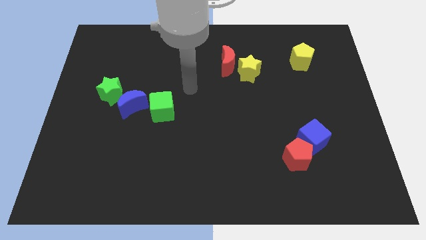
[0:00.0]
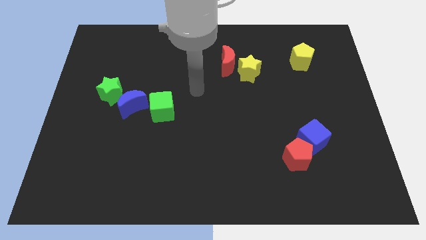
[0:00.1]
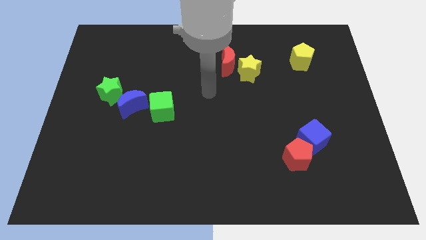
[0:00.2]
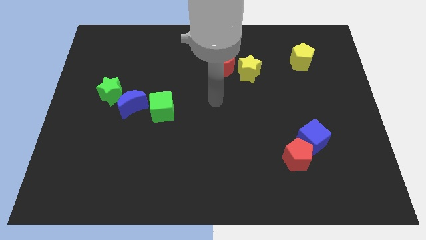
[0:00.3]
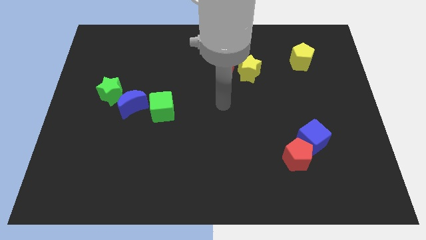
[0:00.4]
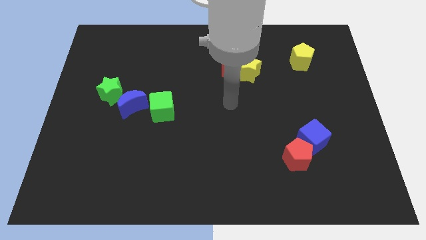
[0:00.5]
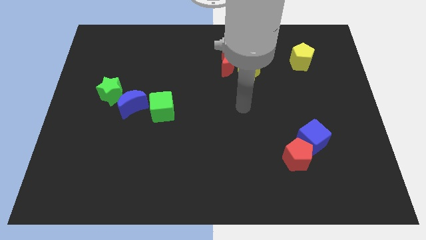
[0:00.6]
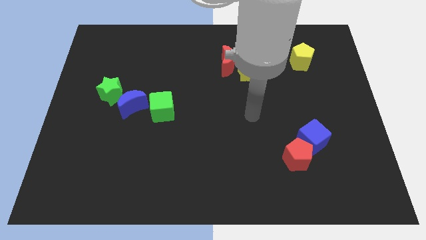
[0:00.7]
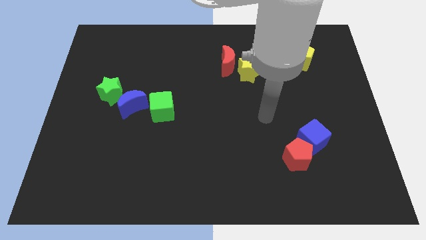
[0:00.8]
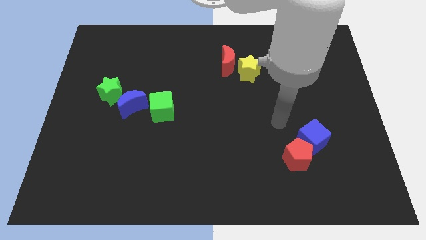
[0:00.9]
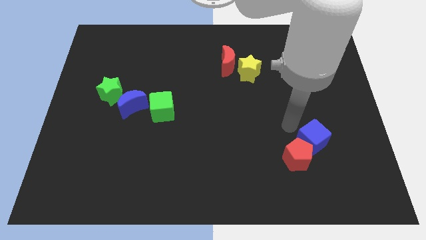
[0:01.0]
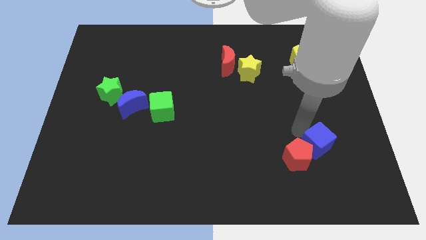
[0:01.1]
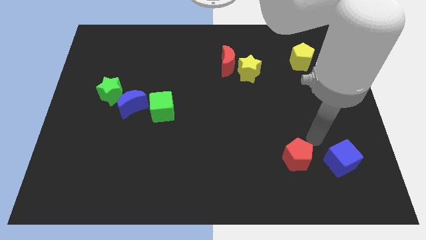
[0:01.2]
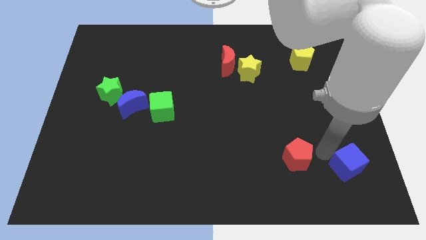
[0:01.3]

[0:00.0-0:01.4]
separate the red pentagon from the blue cube

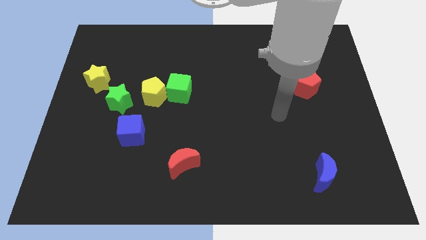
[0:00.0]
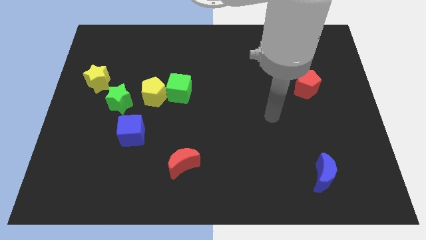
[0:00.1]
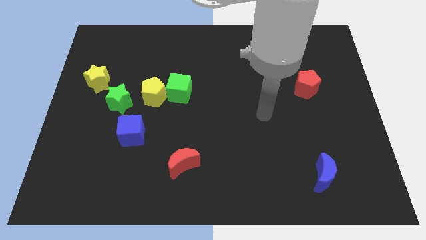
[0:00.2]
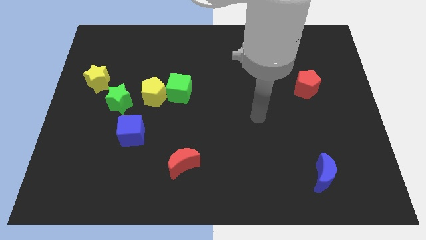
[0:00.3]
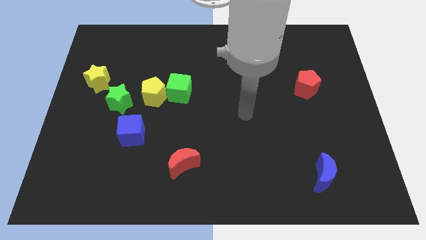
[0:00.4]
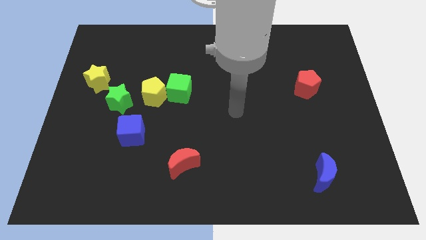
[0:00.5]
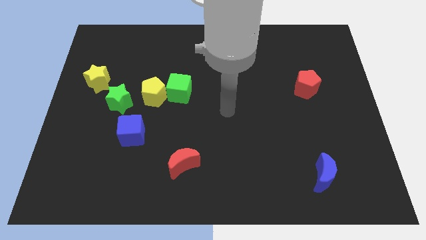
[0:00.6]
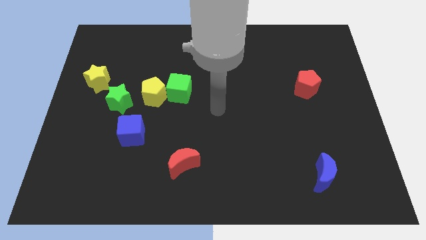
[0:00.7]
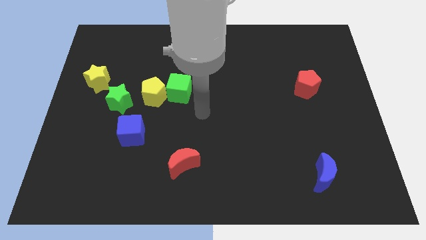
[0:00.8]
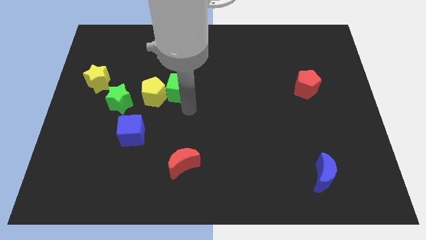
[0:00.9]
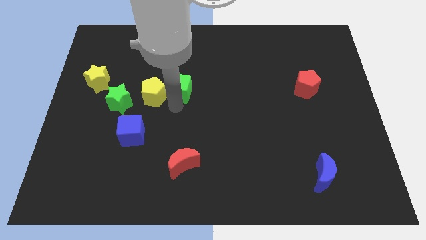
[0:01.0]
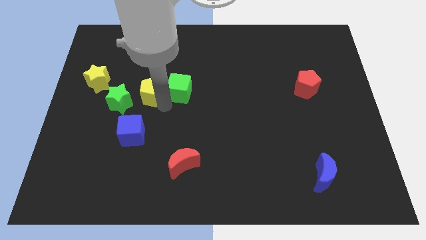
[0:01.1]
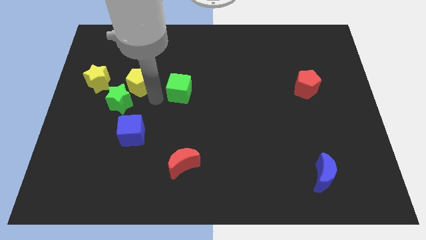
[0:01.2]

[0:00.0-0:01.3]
separate the green cube from the yellow pentagon

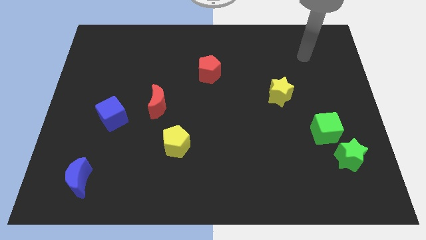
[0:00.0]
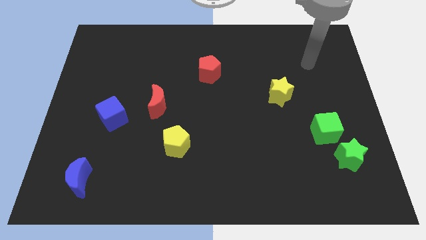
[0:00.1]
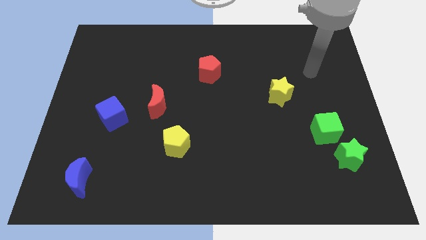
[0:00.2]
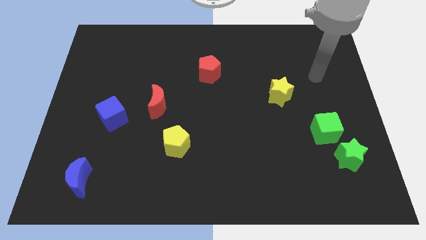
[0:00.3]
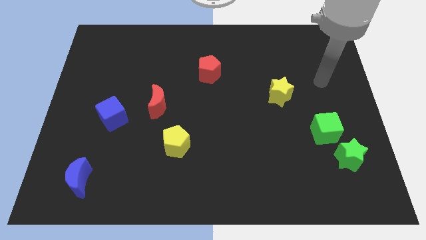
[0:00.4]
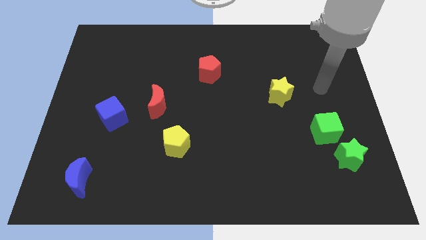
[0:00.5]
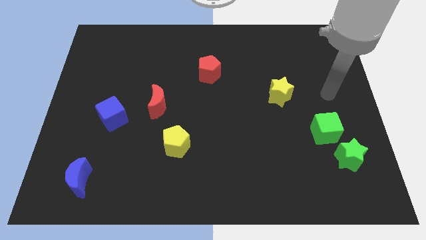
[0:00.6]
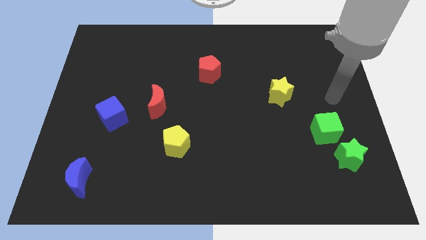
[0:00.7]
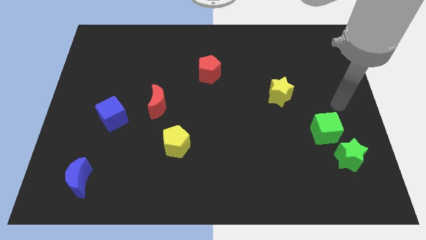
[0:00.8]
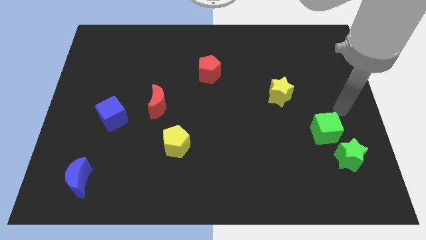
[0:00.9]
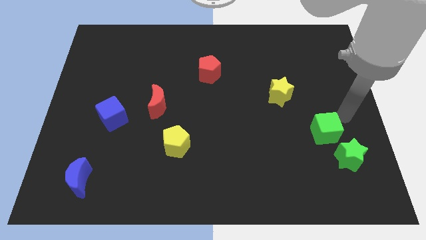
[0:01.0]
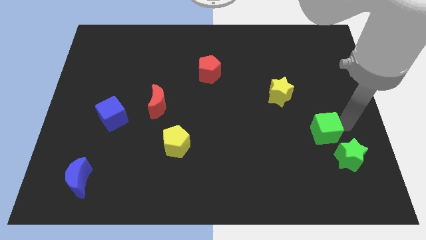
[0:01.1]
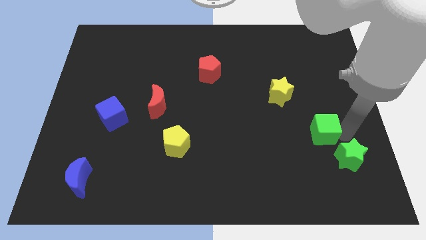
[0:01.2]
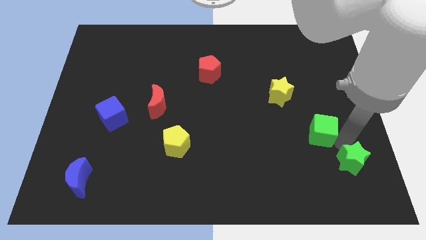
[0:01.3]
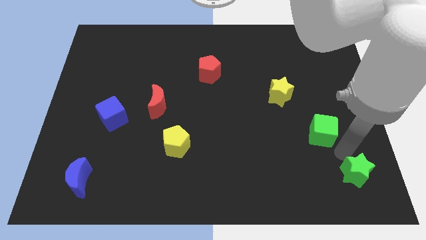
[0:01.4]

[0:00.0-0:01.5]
move the green cube away from the green star

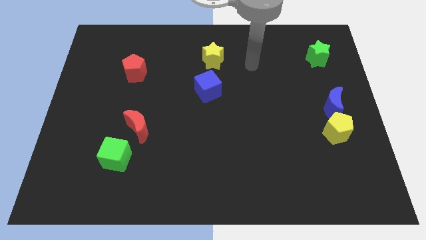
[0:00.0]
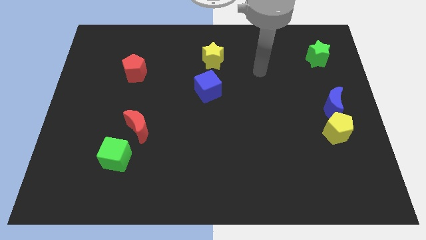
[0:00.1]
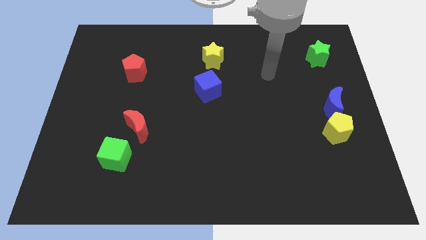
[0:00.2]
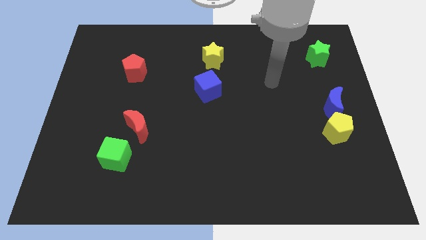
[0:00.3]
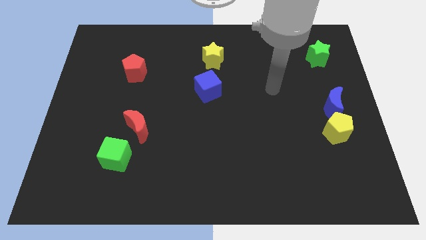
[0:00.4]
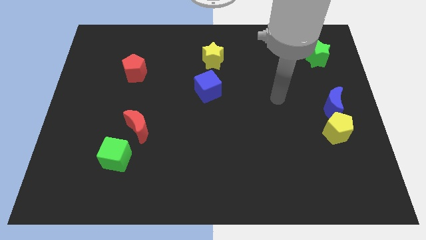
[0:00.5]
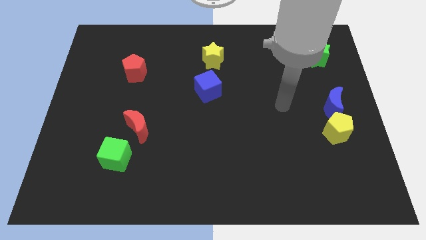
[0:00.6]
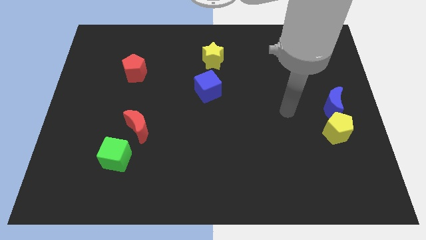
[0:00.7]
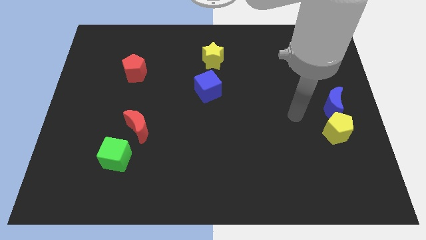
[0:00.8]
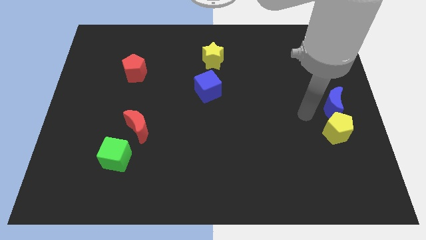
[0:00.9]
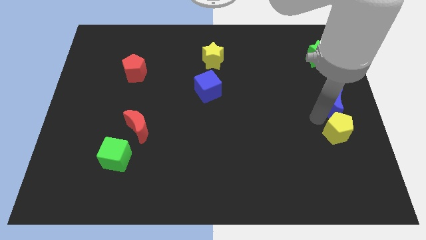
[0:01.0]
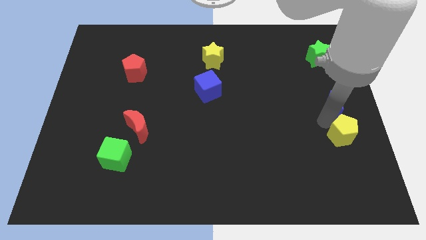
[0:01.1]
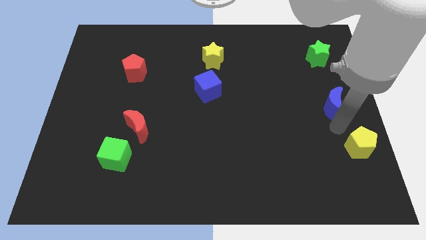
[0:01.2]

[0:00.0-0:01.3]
move the blue moon away from the yellow pentagon

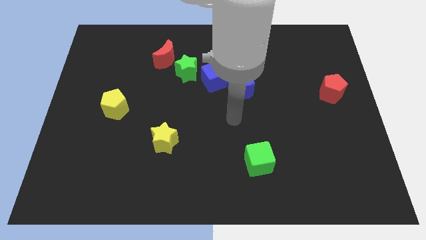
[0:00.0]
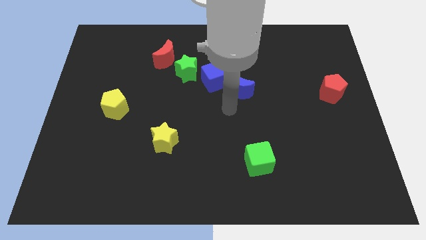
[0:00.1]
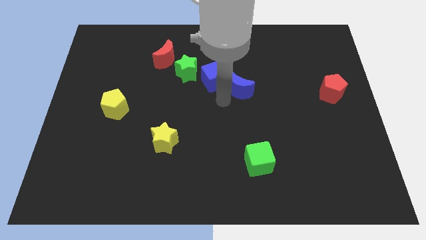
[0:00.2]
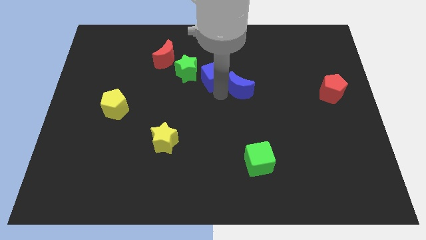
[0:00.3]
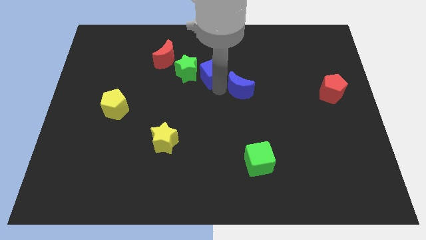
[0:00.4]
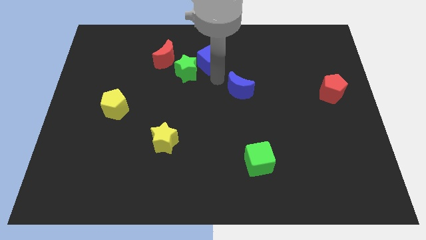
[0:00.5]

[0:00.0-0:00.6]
move the blue moon away from the blue cube

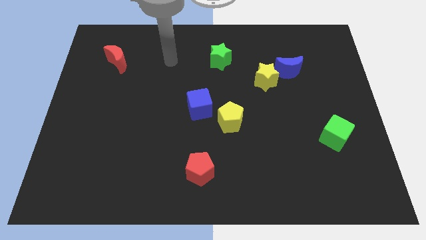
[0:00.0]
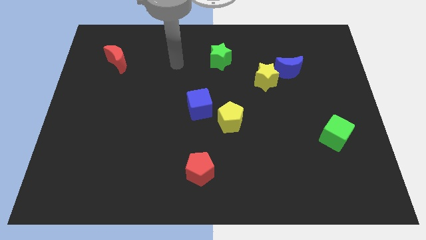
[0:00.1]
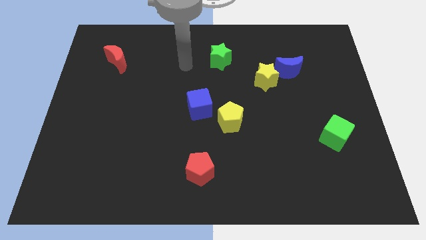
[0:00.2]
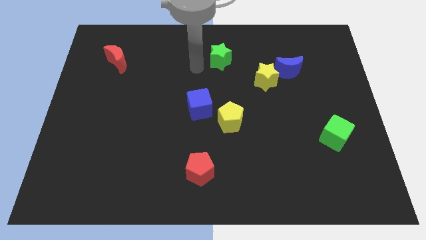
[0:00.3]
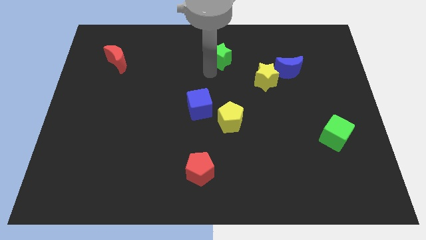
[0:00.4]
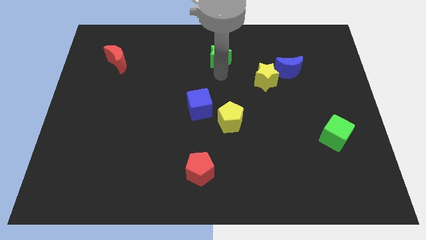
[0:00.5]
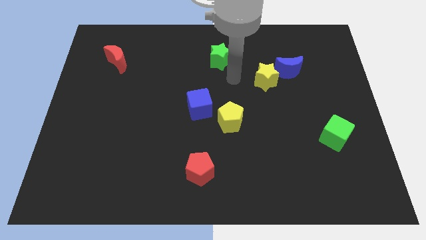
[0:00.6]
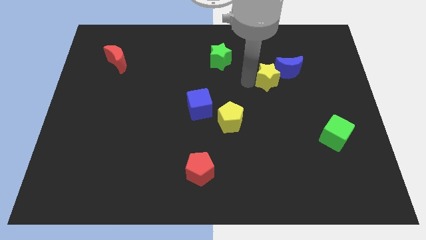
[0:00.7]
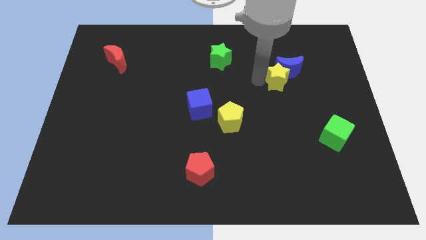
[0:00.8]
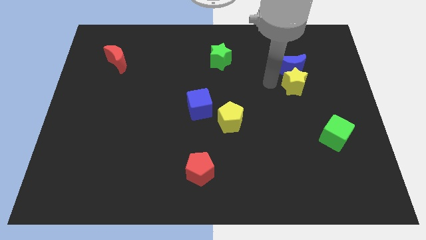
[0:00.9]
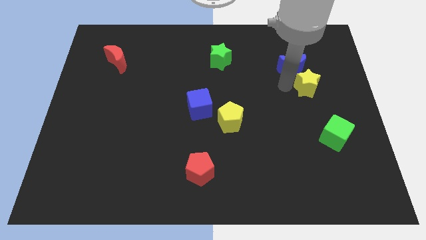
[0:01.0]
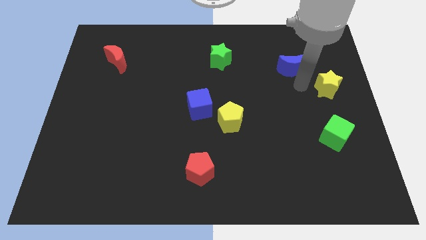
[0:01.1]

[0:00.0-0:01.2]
separate the blue moon from the yellow star

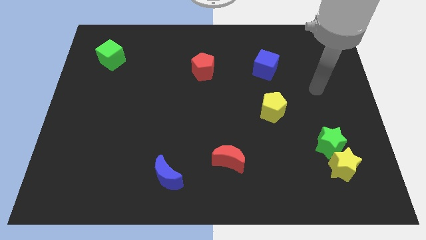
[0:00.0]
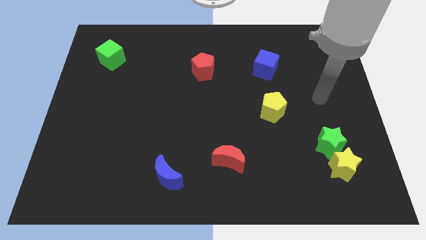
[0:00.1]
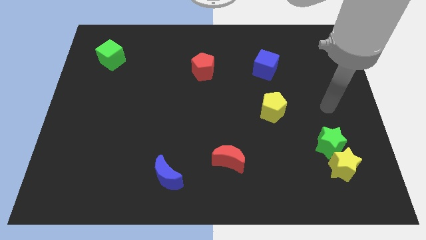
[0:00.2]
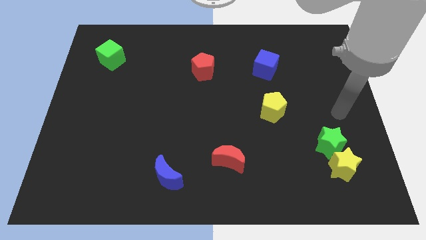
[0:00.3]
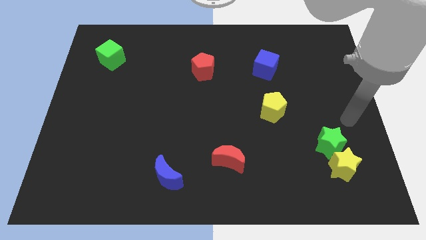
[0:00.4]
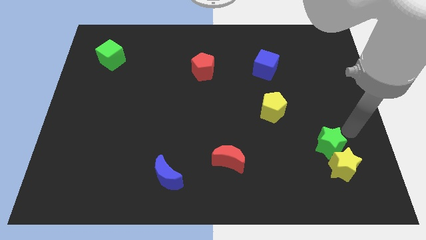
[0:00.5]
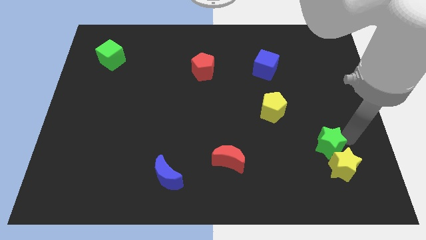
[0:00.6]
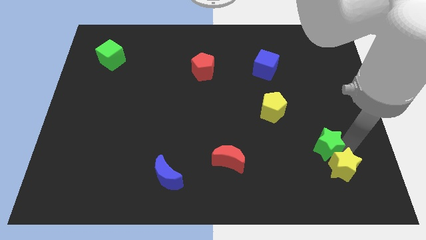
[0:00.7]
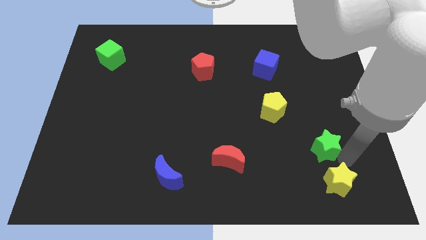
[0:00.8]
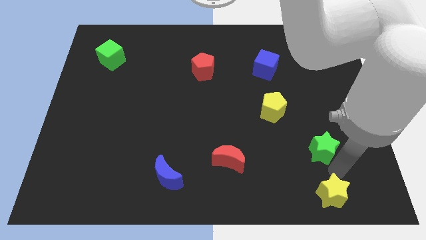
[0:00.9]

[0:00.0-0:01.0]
pull the green star apart from the yellow star

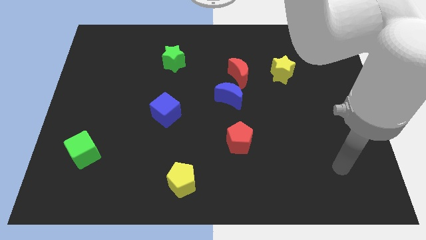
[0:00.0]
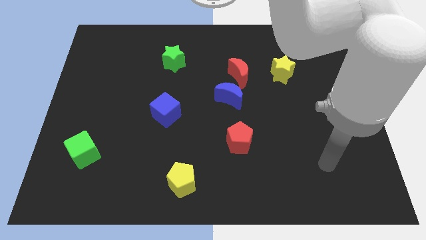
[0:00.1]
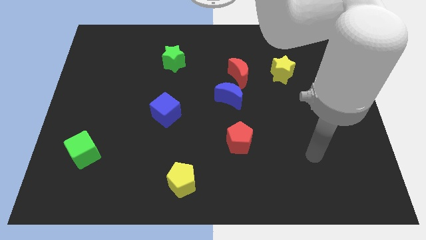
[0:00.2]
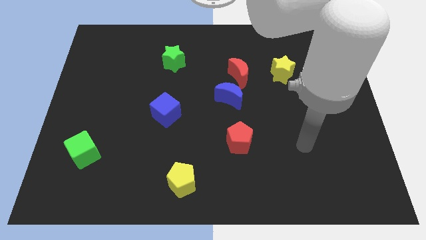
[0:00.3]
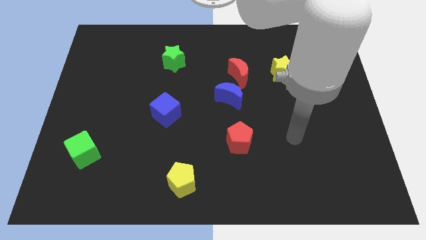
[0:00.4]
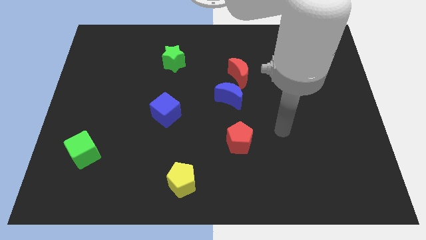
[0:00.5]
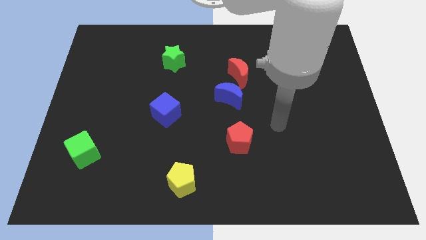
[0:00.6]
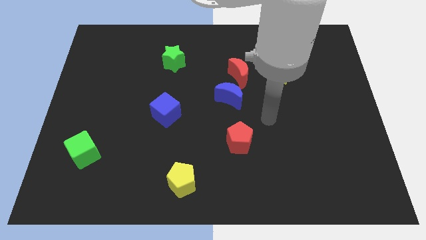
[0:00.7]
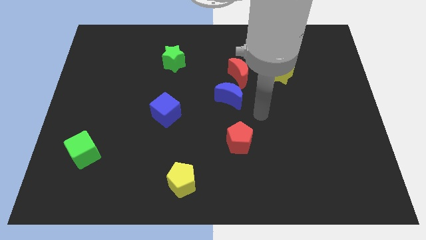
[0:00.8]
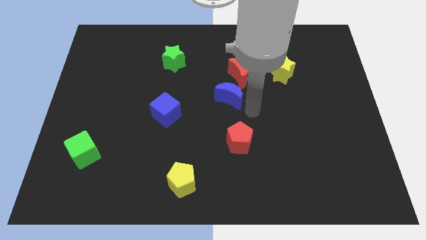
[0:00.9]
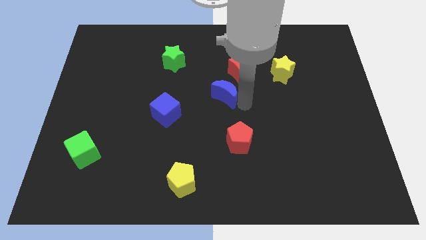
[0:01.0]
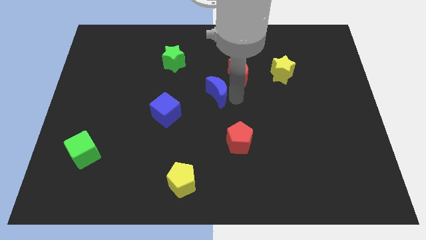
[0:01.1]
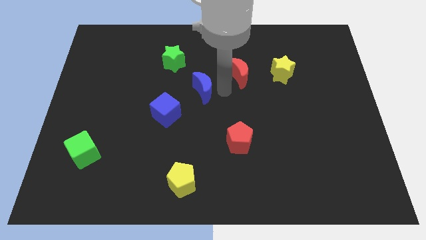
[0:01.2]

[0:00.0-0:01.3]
pull the red moon apart from the blue moon
